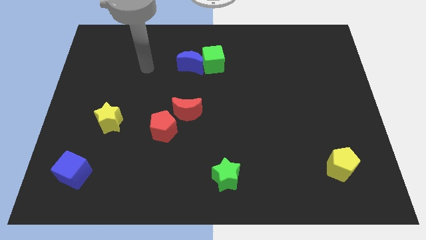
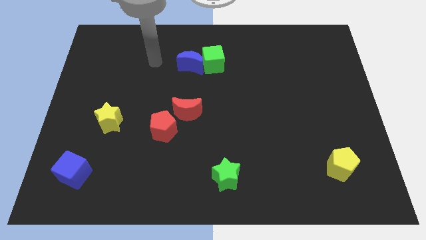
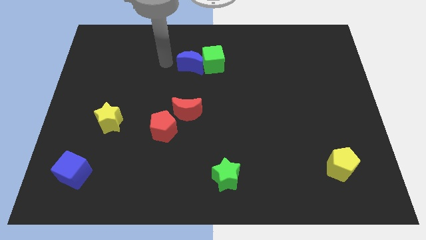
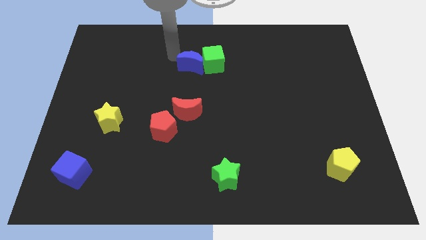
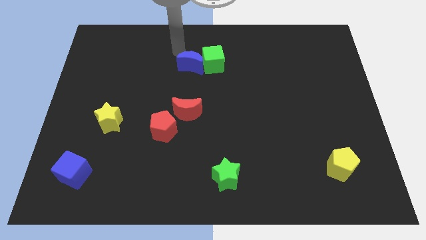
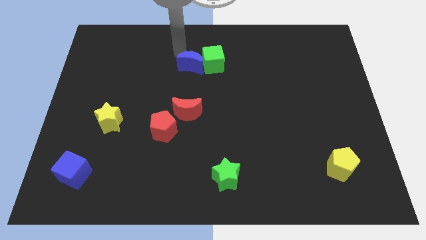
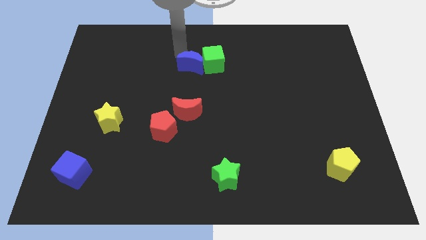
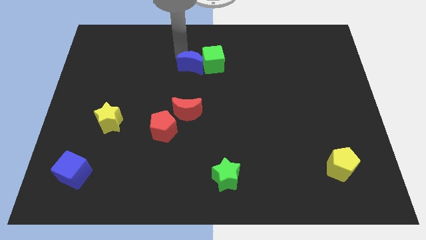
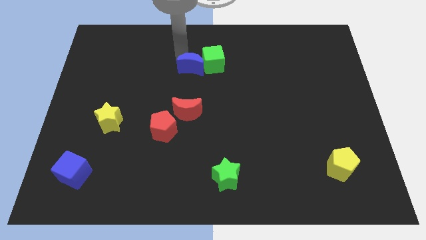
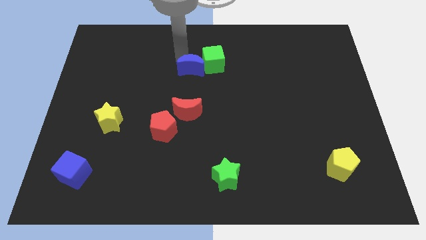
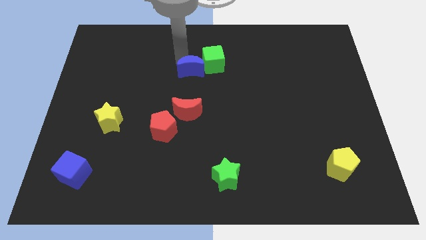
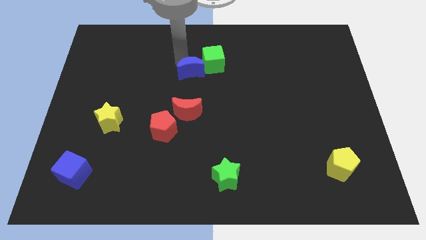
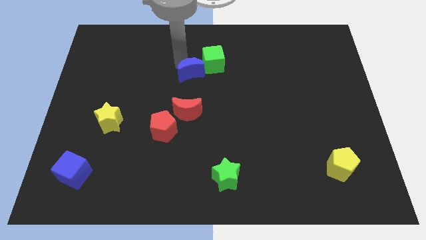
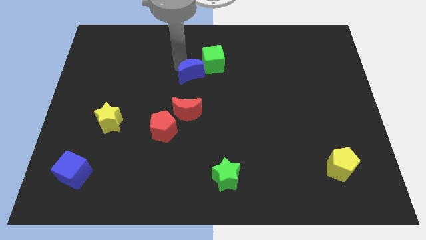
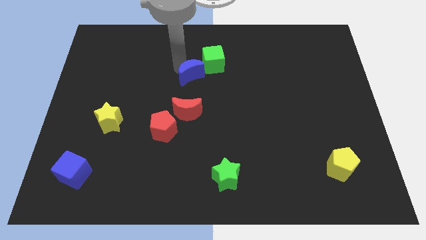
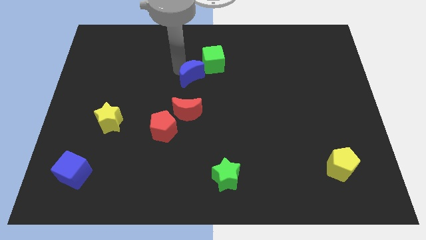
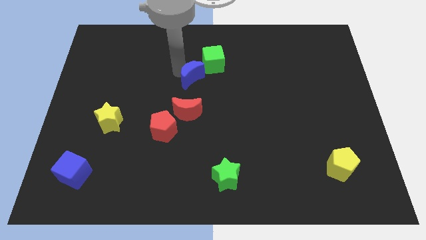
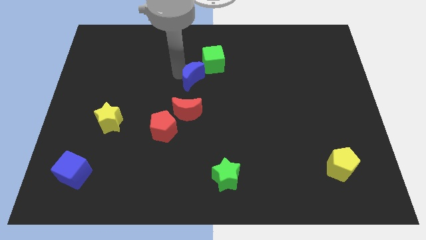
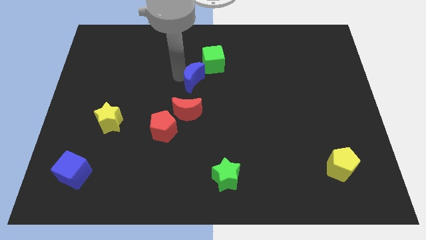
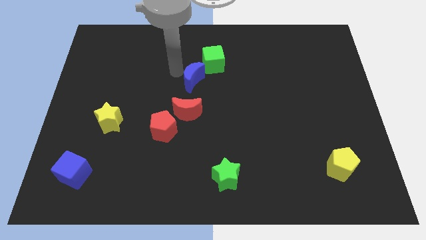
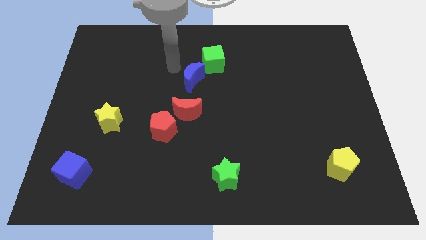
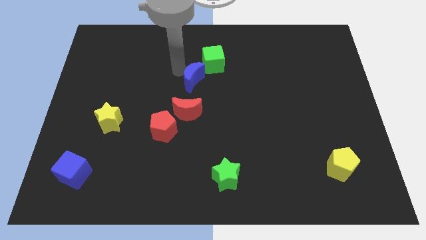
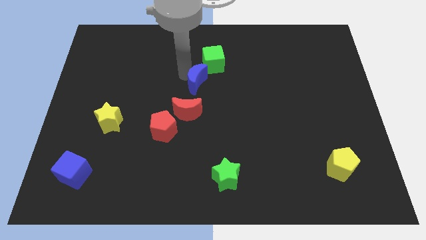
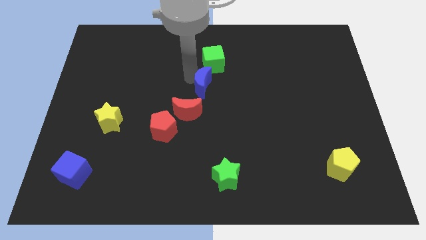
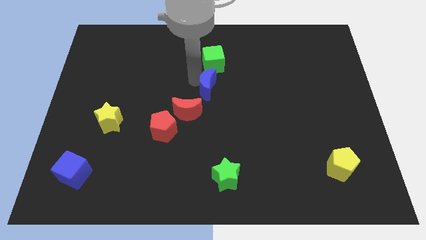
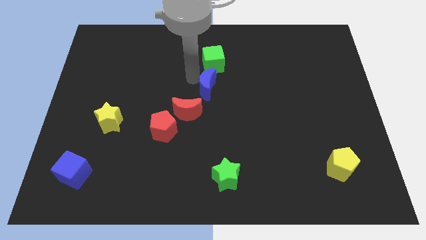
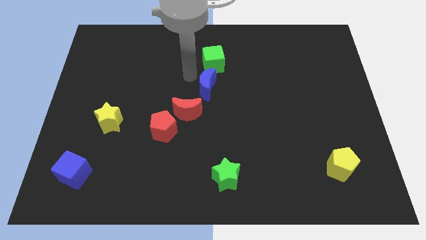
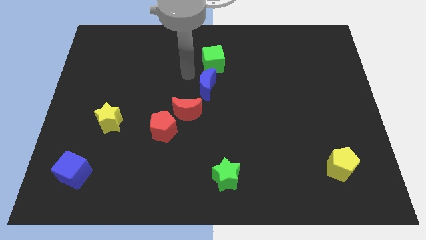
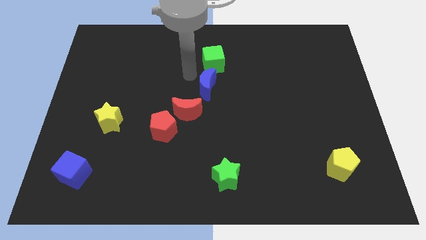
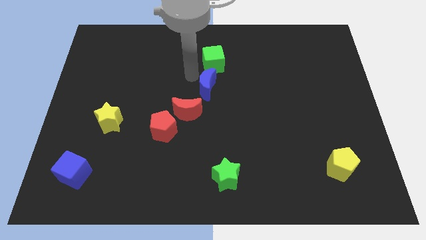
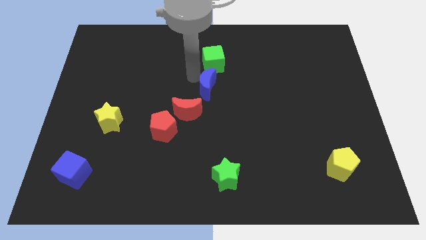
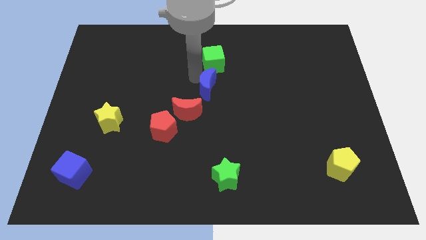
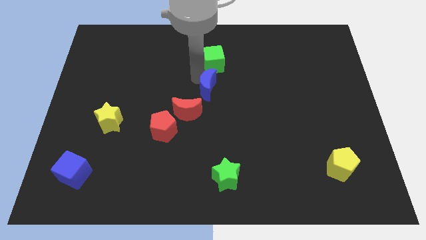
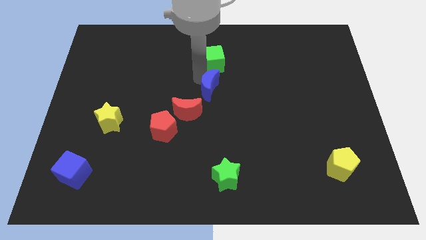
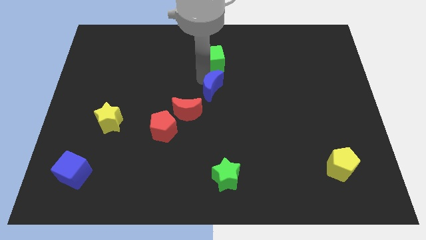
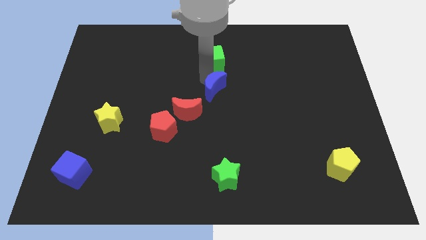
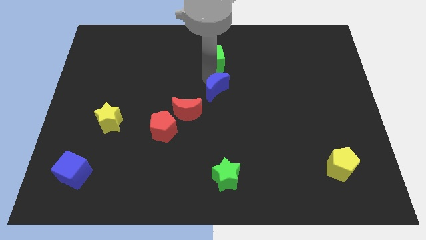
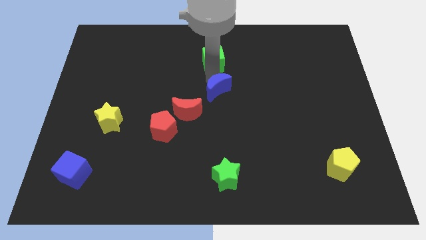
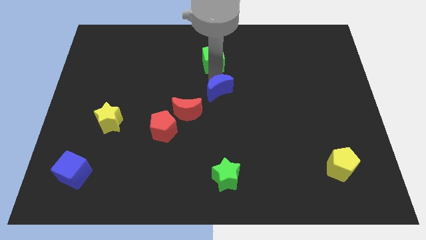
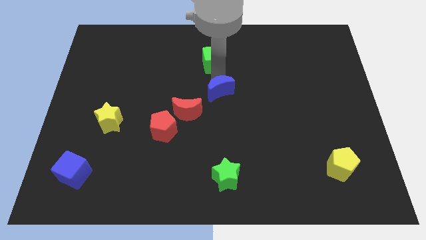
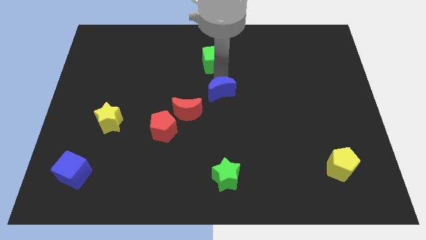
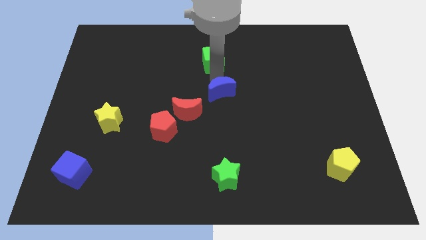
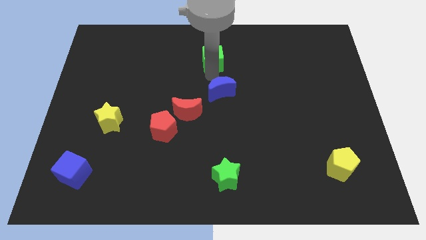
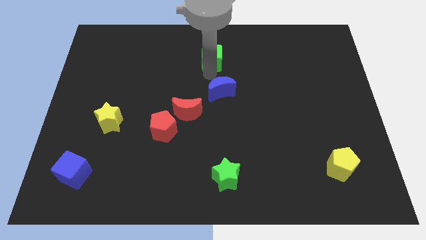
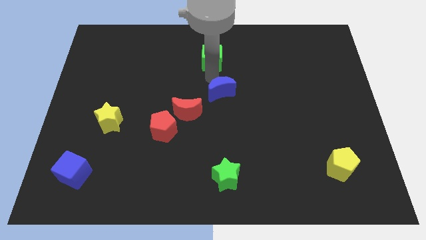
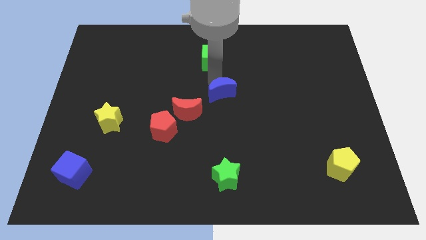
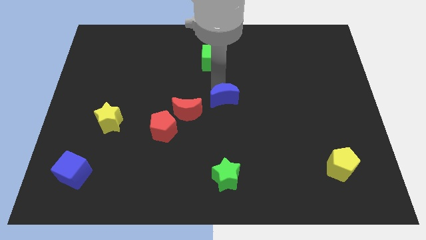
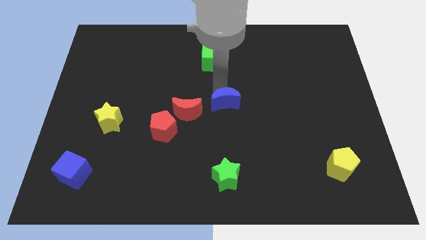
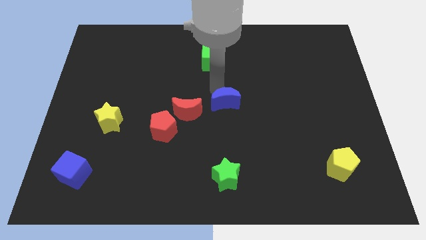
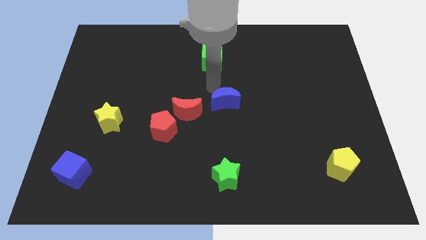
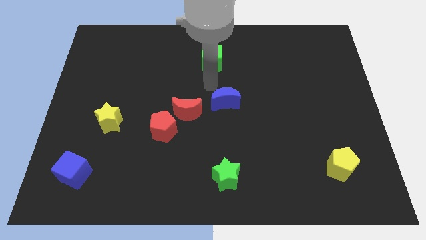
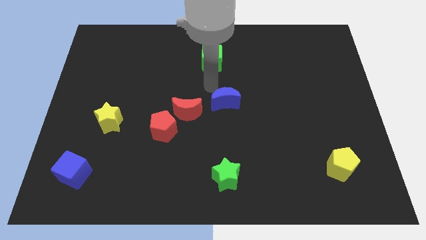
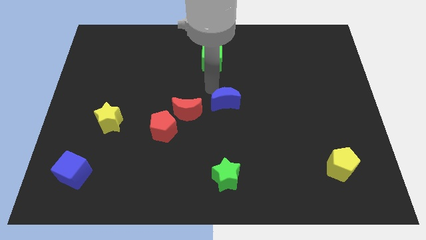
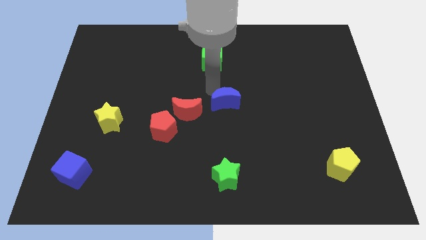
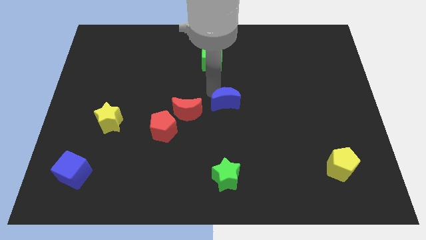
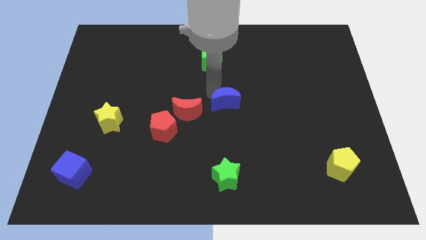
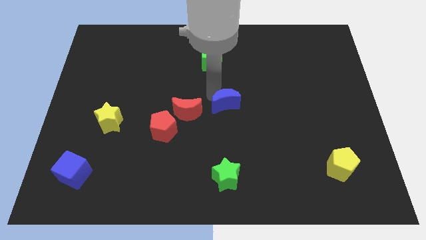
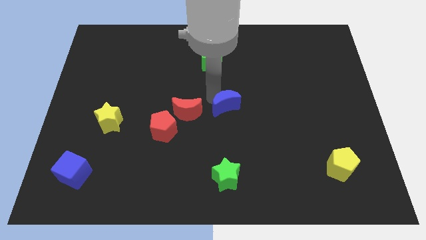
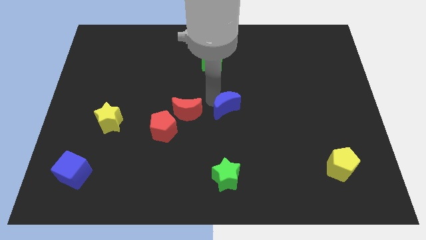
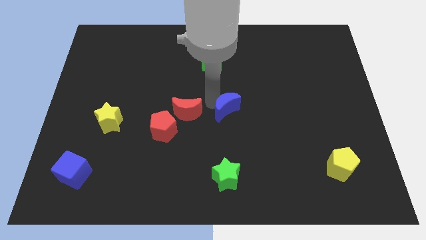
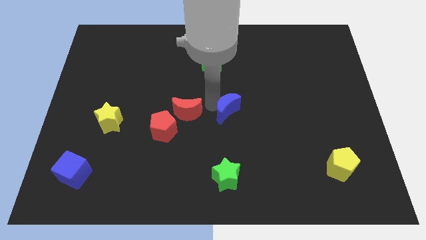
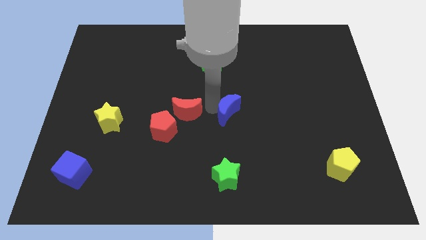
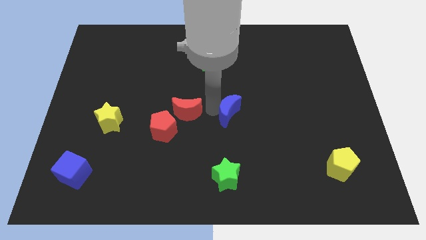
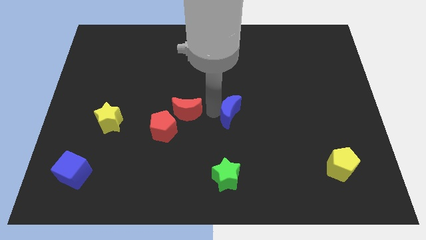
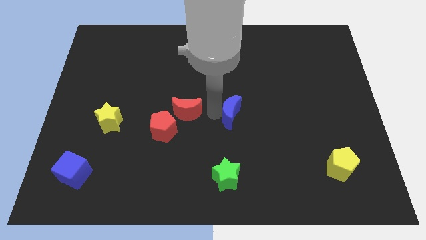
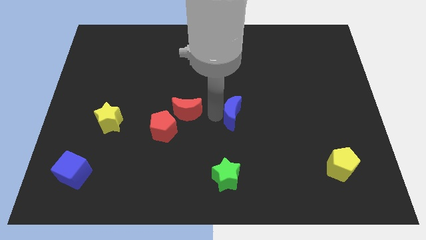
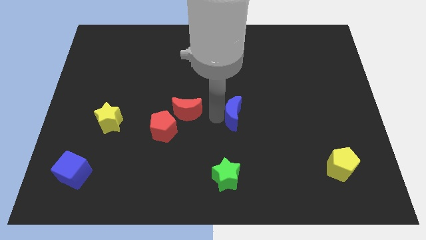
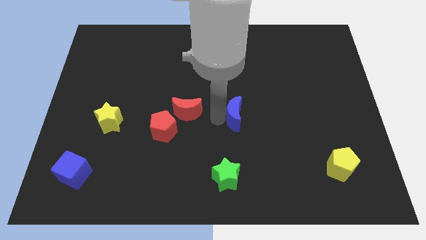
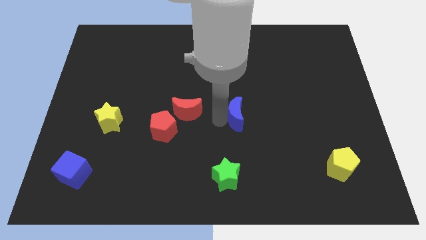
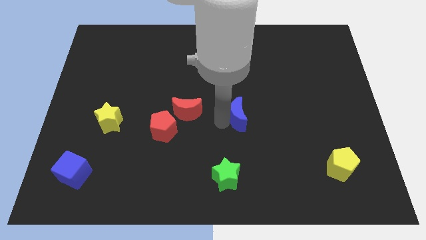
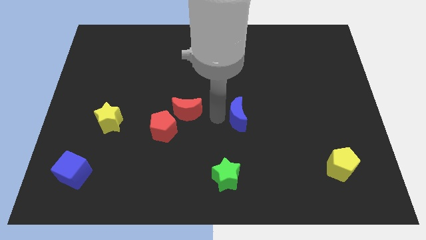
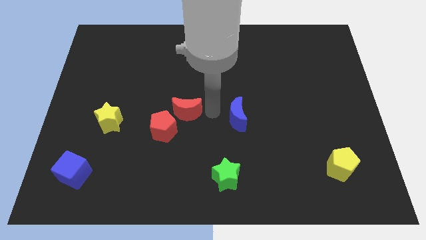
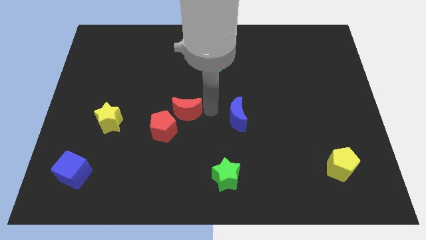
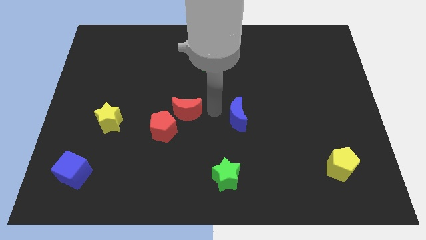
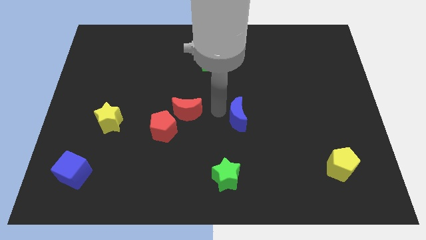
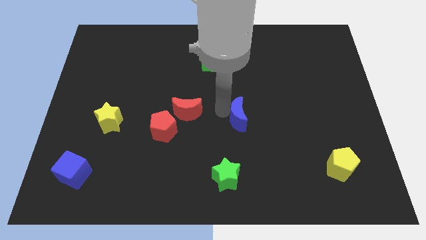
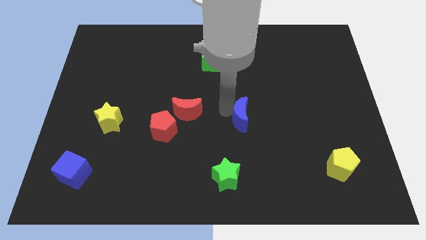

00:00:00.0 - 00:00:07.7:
slide the blue moon diagonally down and right

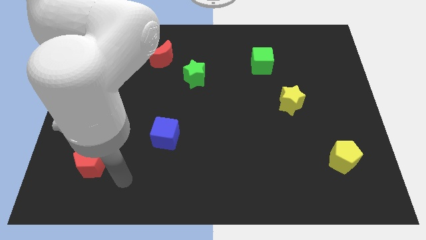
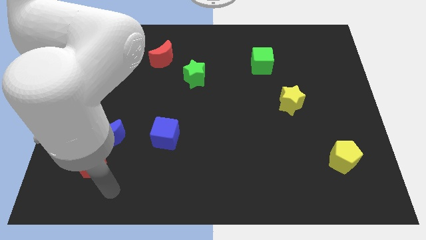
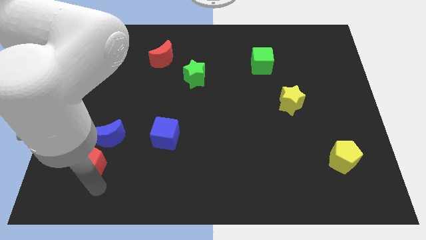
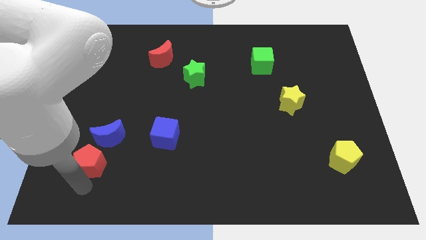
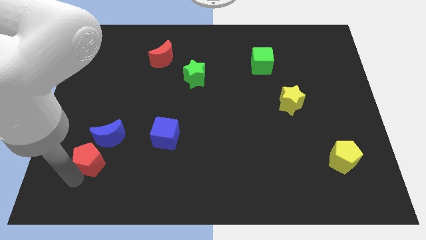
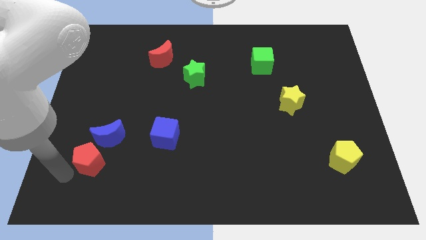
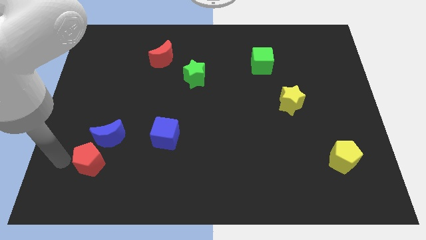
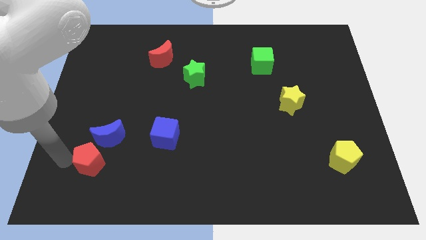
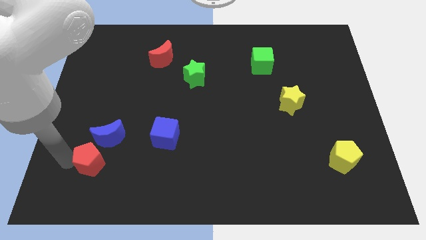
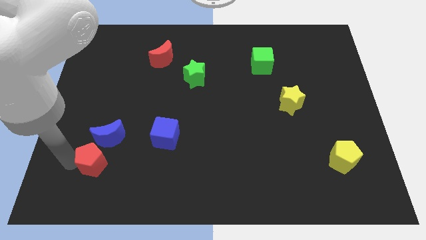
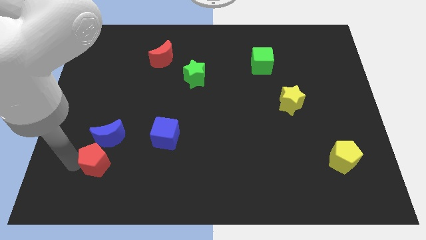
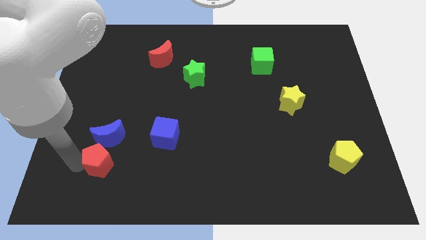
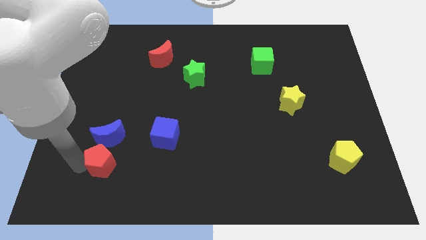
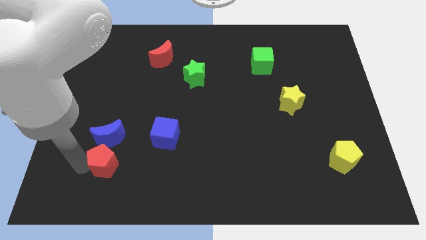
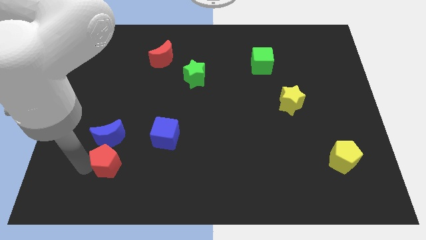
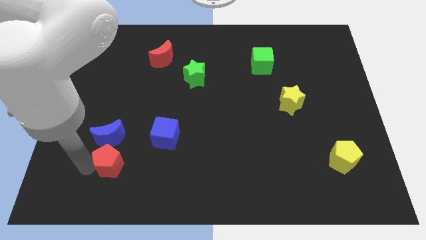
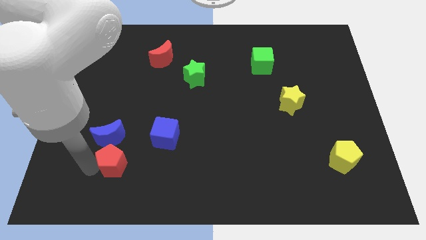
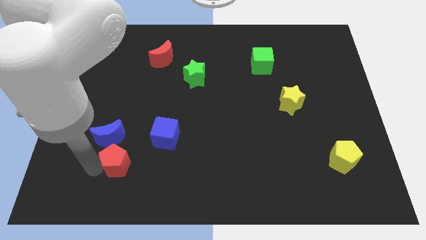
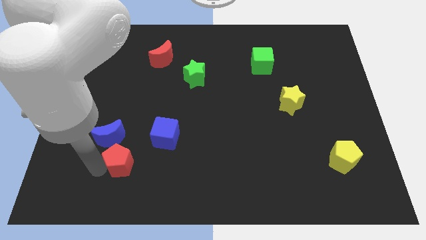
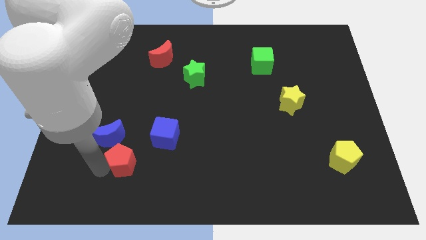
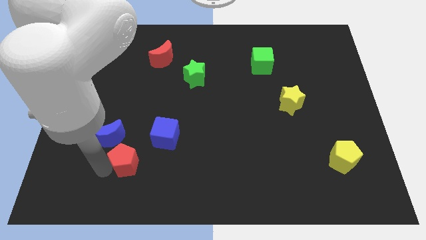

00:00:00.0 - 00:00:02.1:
slide the red pentagon somewhat right
